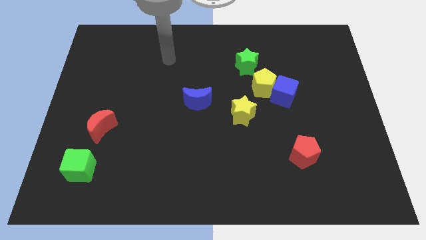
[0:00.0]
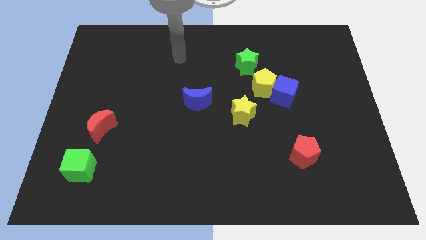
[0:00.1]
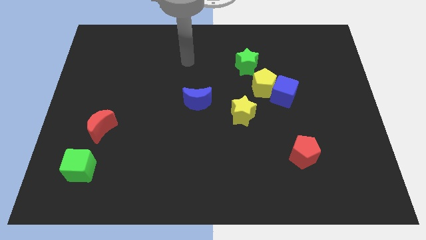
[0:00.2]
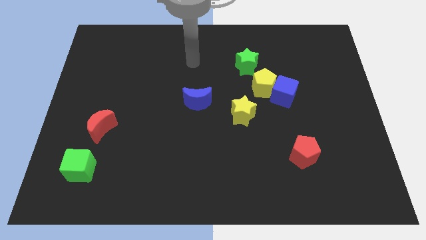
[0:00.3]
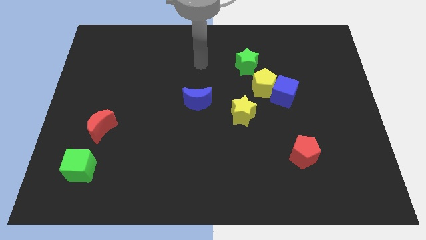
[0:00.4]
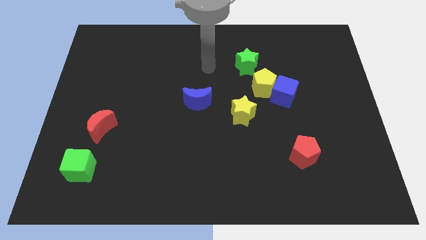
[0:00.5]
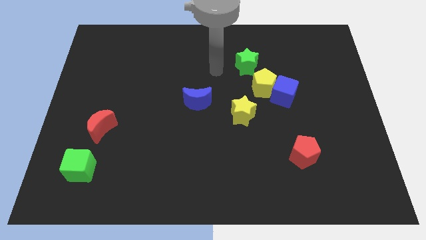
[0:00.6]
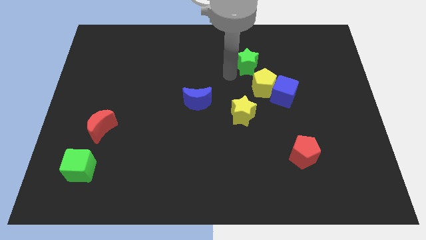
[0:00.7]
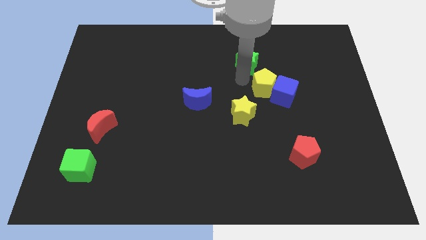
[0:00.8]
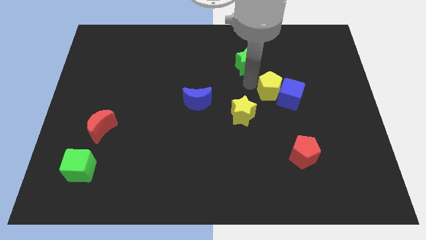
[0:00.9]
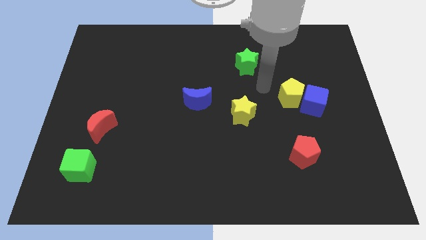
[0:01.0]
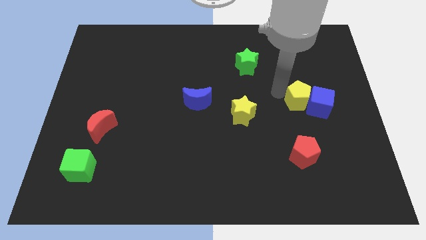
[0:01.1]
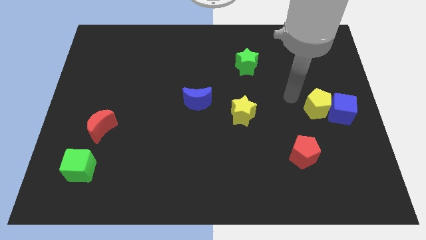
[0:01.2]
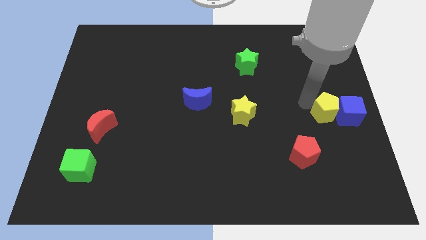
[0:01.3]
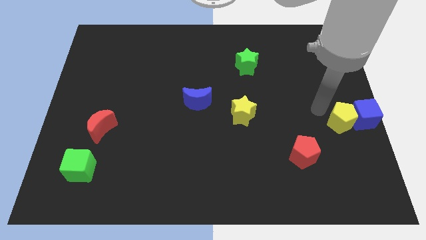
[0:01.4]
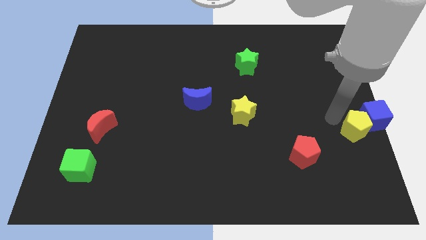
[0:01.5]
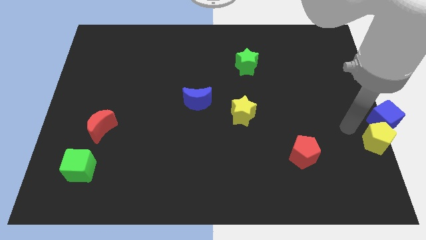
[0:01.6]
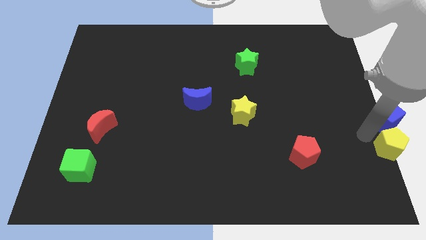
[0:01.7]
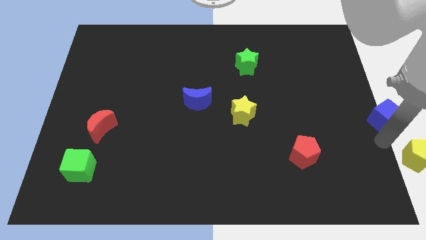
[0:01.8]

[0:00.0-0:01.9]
separate the blue cube from the yellow pentagon

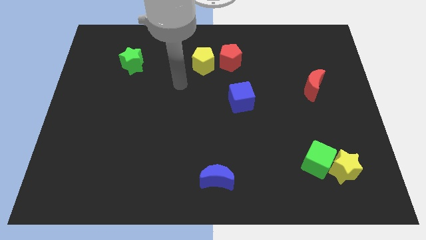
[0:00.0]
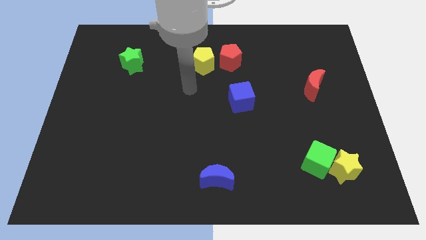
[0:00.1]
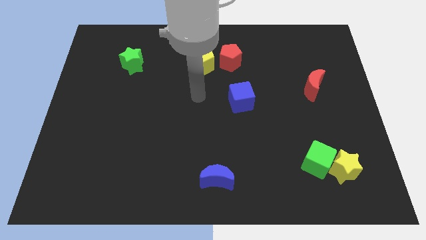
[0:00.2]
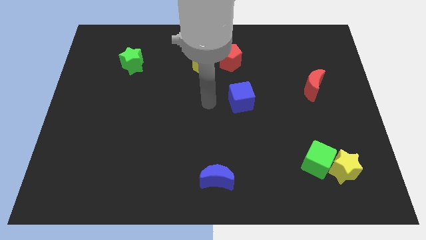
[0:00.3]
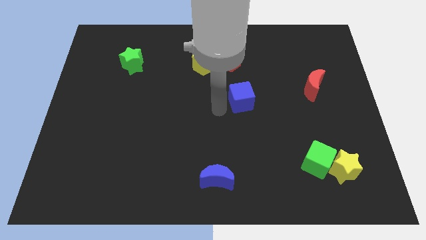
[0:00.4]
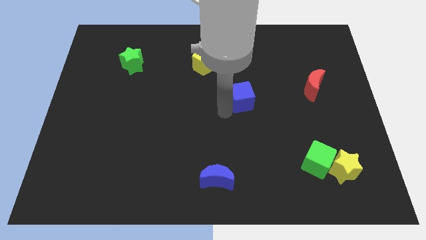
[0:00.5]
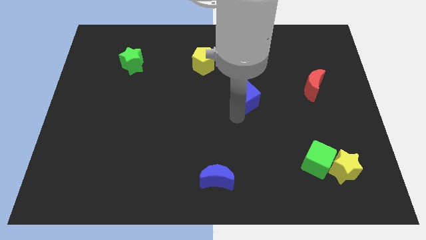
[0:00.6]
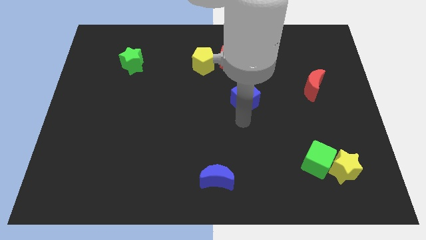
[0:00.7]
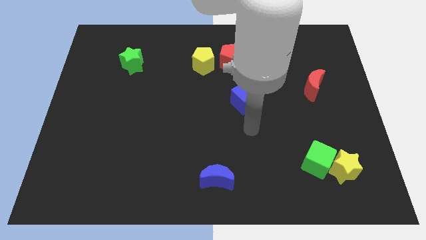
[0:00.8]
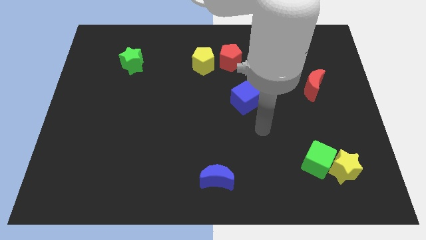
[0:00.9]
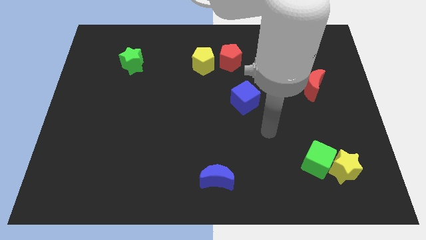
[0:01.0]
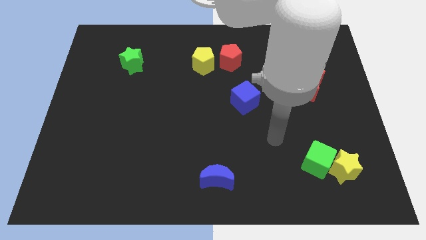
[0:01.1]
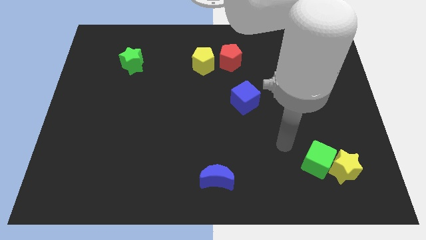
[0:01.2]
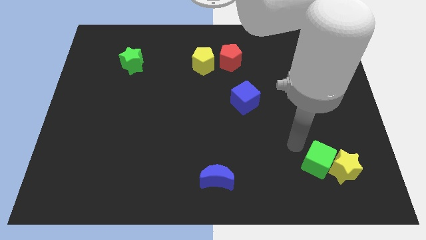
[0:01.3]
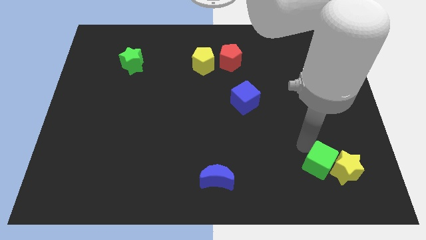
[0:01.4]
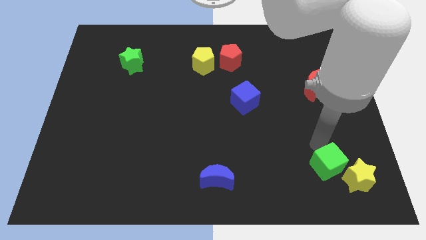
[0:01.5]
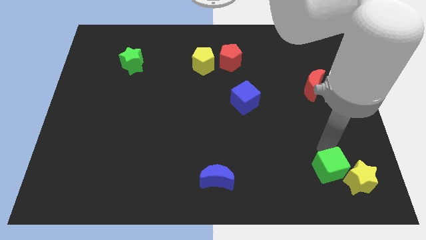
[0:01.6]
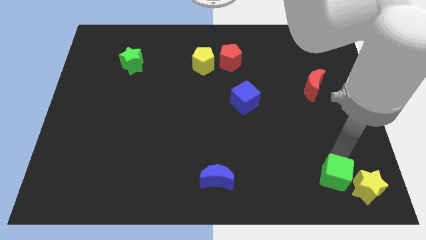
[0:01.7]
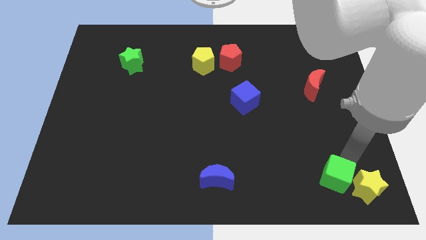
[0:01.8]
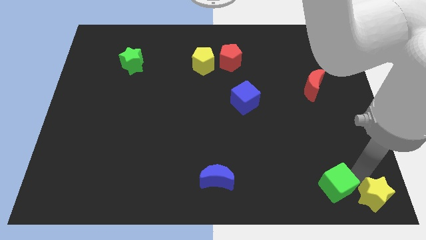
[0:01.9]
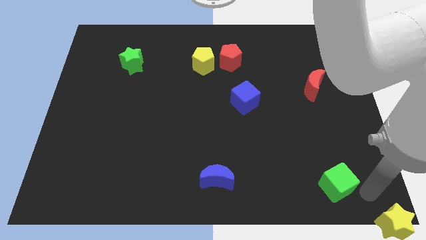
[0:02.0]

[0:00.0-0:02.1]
separate the green cube from the yellow star

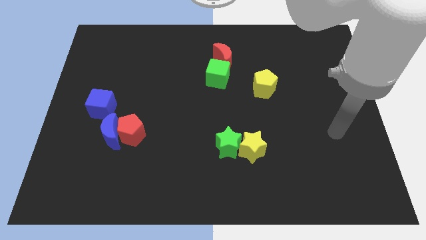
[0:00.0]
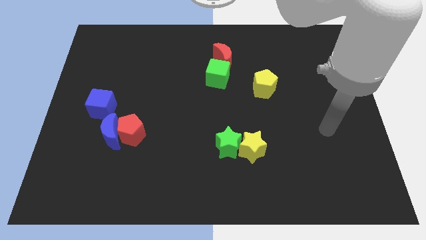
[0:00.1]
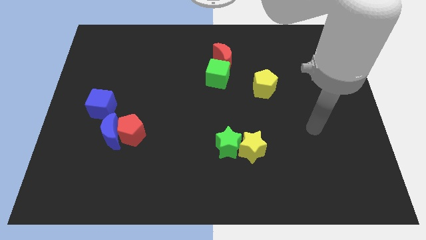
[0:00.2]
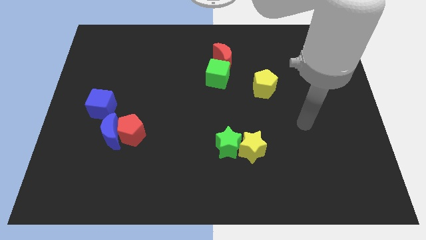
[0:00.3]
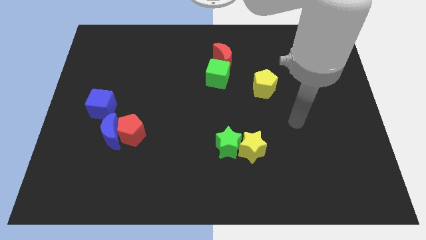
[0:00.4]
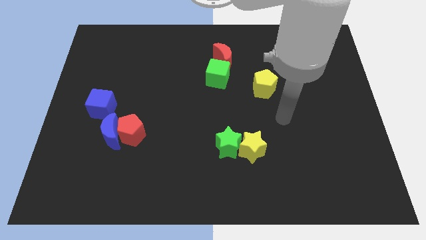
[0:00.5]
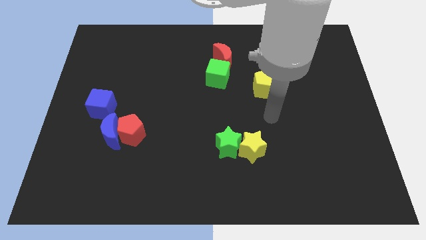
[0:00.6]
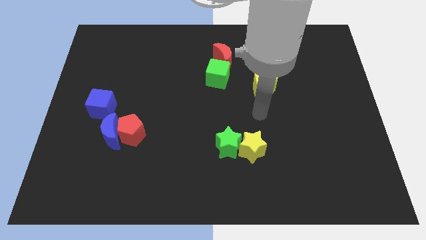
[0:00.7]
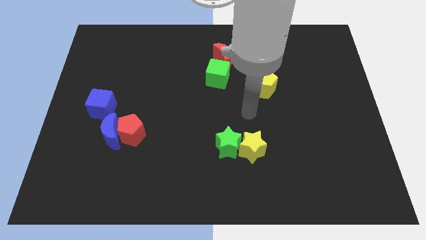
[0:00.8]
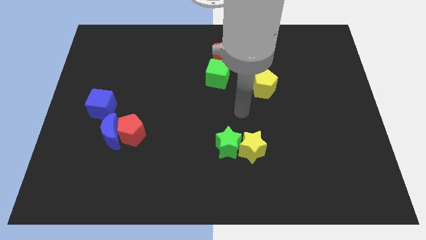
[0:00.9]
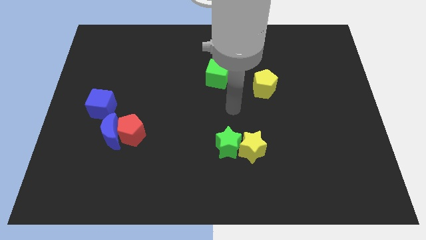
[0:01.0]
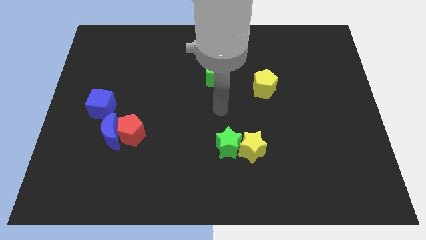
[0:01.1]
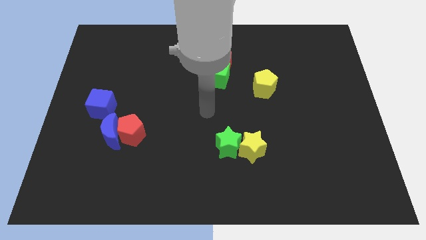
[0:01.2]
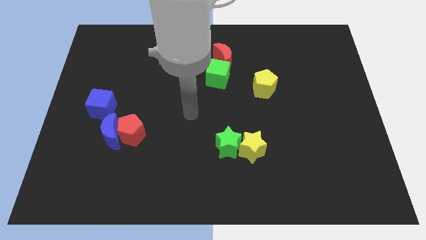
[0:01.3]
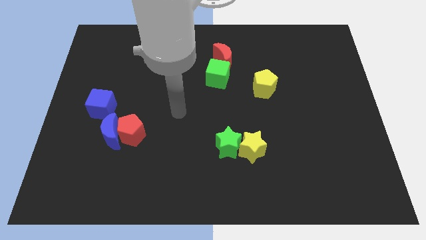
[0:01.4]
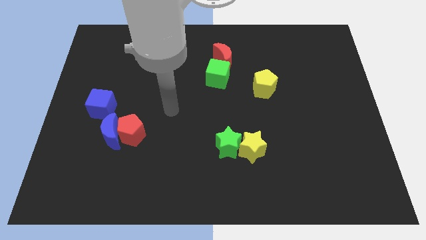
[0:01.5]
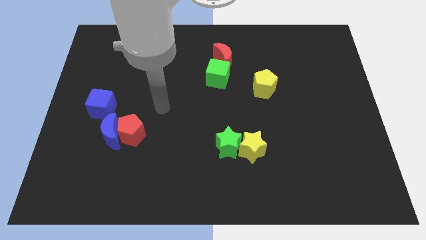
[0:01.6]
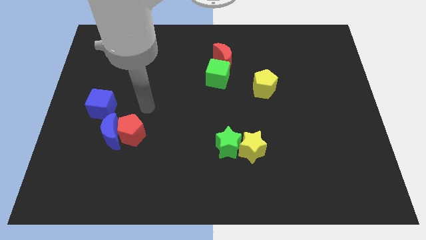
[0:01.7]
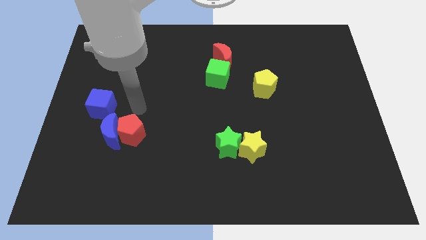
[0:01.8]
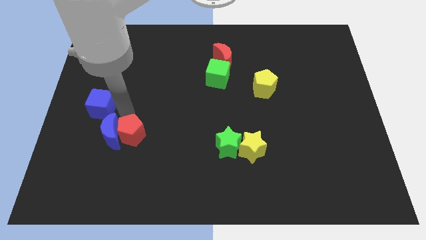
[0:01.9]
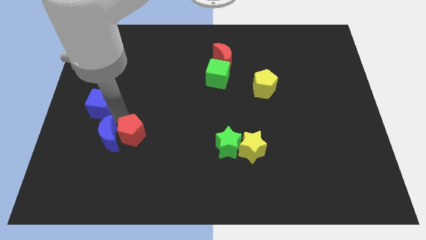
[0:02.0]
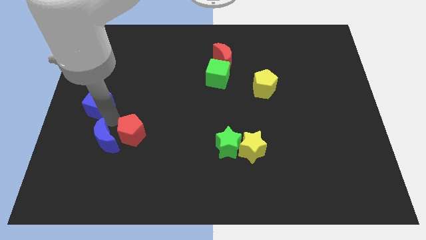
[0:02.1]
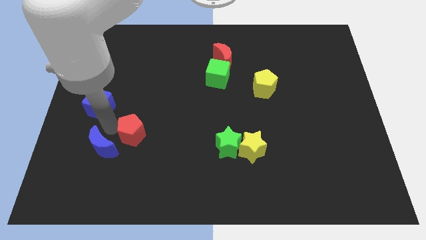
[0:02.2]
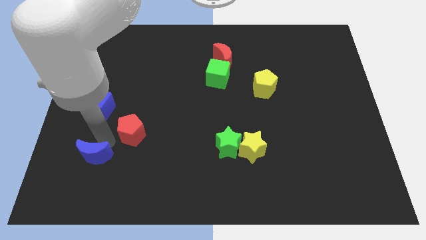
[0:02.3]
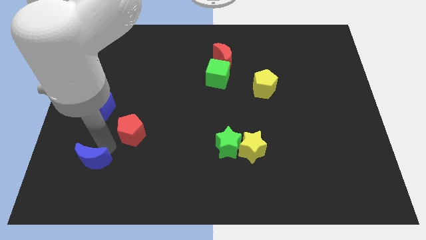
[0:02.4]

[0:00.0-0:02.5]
separate the red pentagon from the blue moon

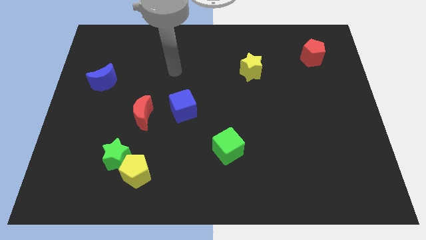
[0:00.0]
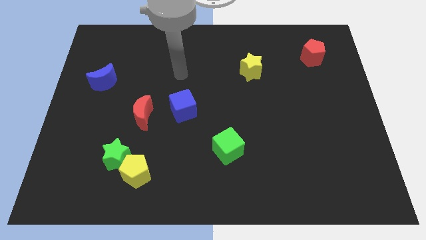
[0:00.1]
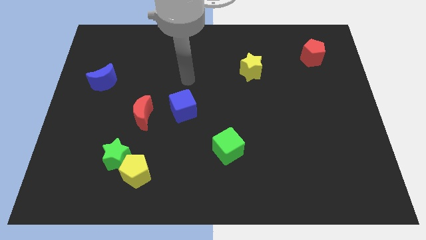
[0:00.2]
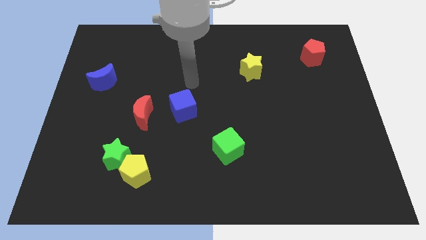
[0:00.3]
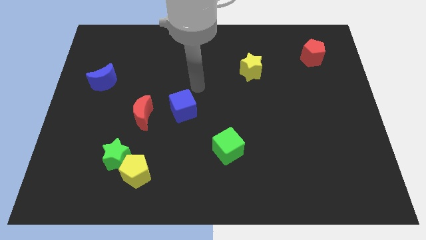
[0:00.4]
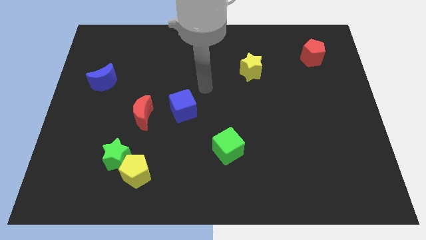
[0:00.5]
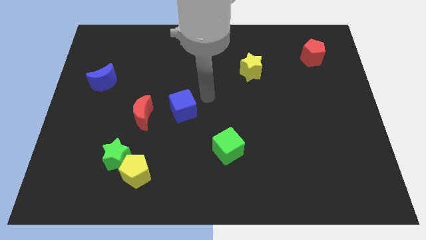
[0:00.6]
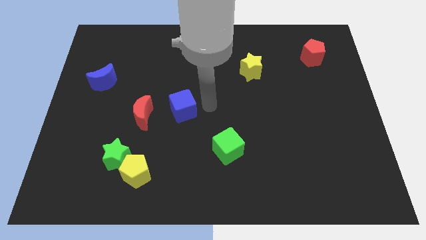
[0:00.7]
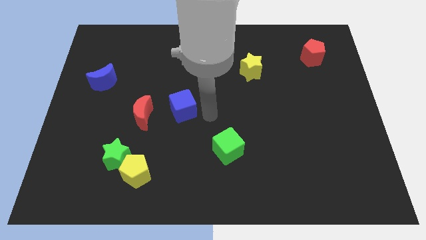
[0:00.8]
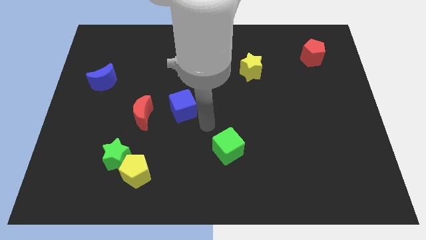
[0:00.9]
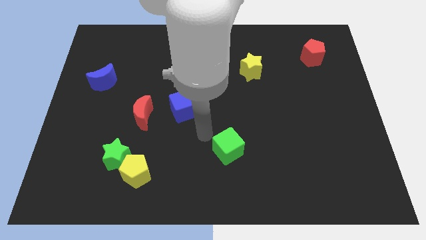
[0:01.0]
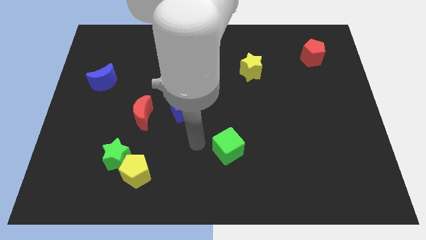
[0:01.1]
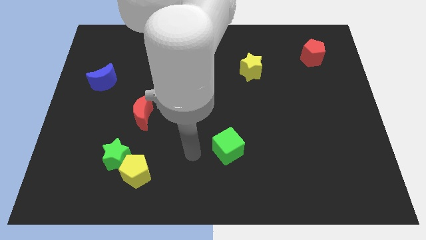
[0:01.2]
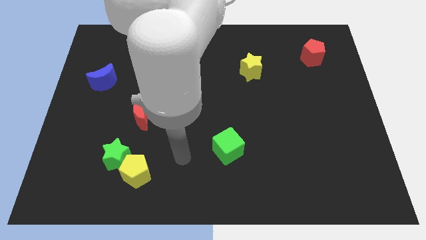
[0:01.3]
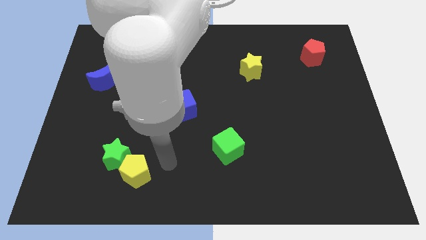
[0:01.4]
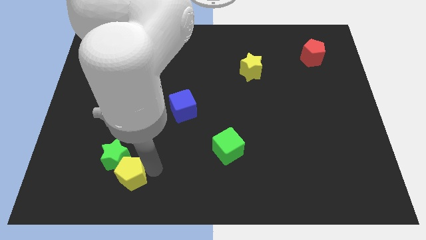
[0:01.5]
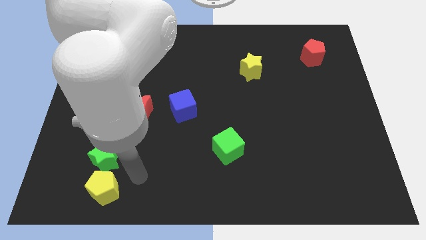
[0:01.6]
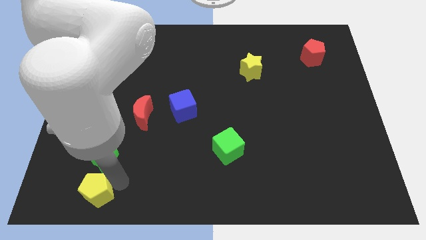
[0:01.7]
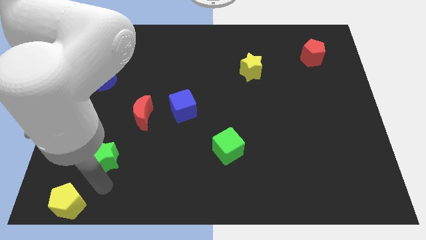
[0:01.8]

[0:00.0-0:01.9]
pull the green star apart from the yellow pentagon

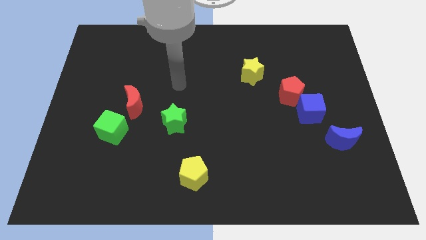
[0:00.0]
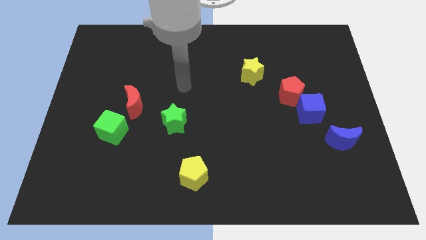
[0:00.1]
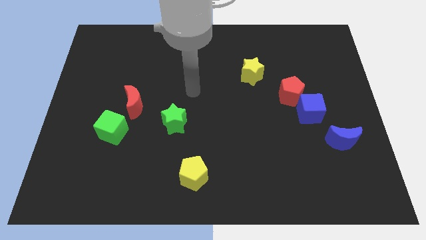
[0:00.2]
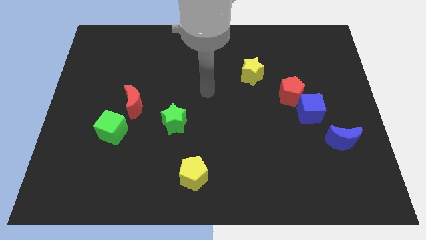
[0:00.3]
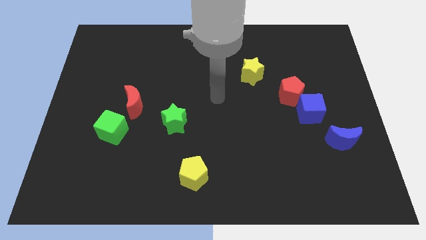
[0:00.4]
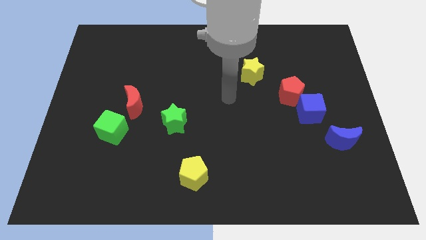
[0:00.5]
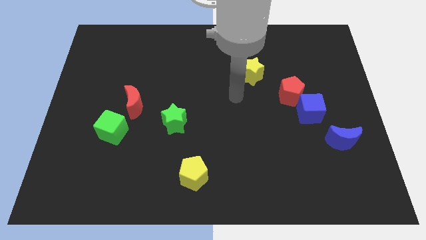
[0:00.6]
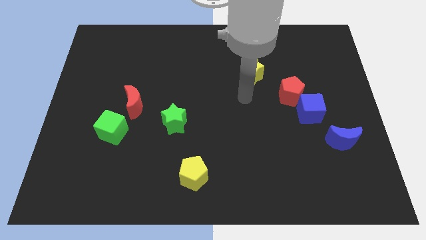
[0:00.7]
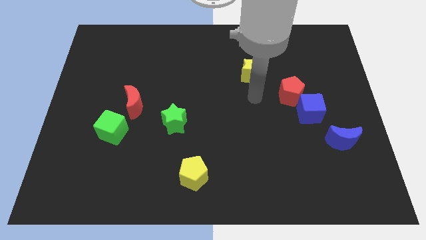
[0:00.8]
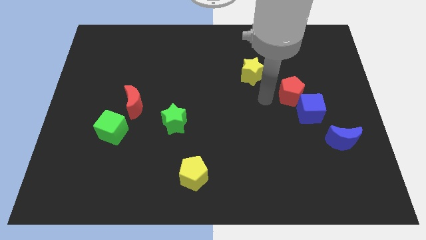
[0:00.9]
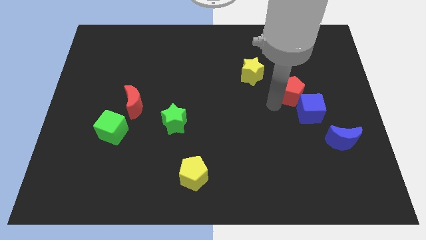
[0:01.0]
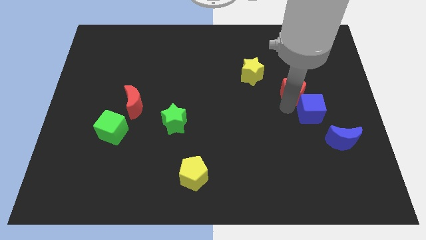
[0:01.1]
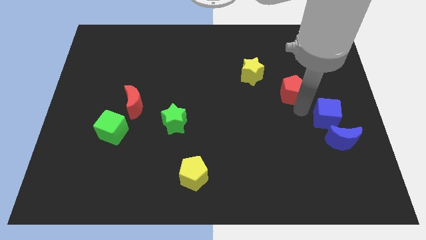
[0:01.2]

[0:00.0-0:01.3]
move the red pentagon away from the blue cube
